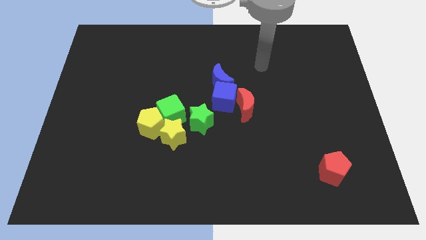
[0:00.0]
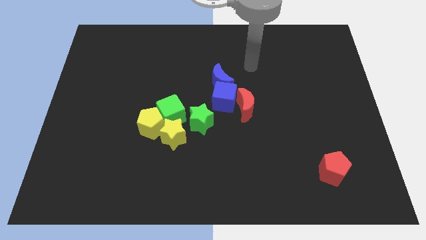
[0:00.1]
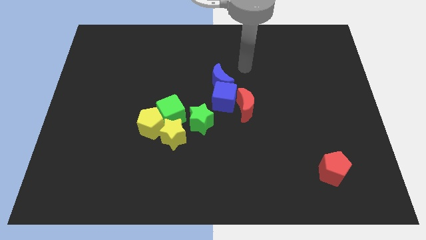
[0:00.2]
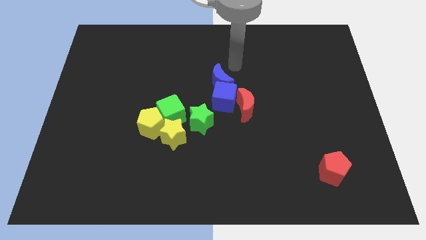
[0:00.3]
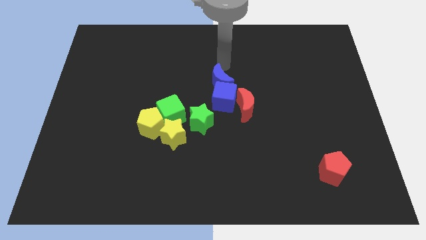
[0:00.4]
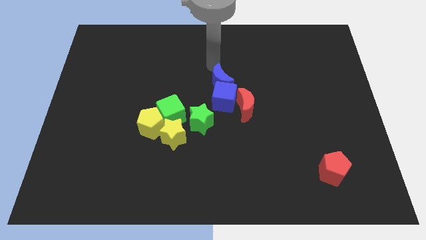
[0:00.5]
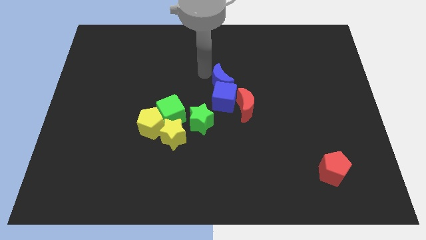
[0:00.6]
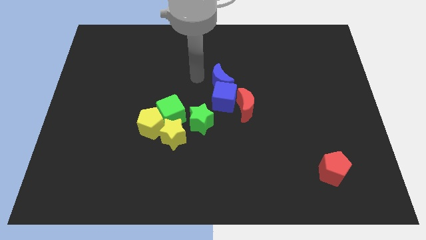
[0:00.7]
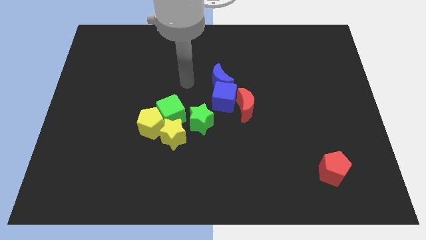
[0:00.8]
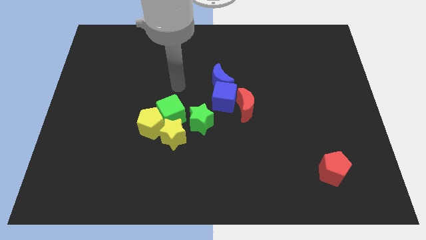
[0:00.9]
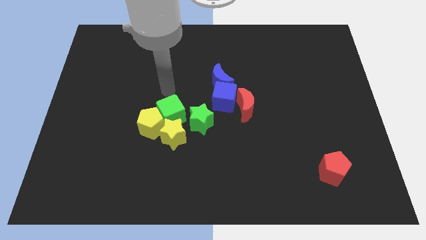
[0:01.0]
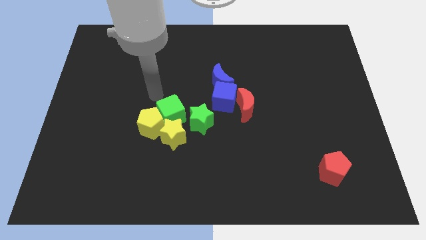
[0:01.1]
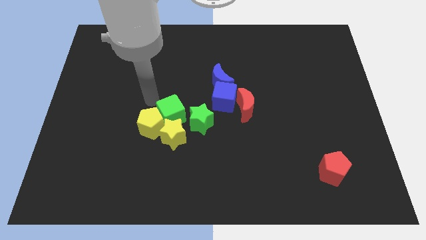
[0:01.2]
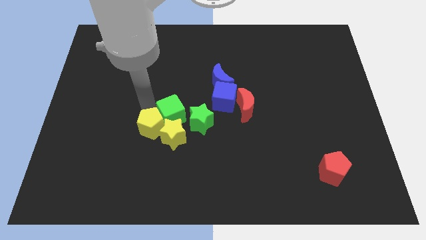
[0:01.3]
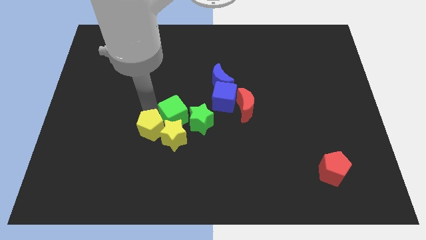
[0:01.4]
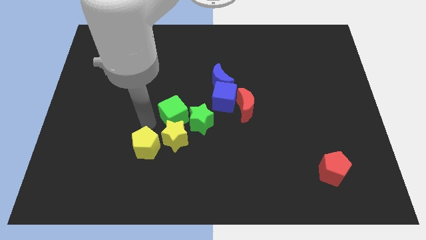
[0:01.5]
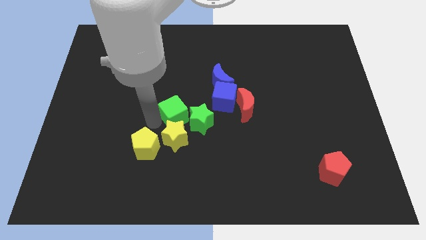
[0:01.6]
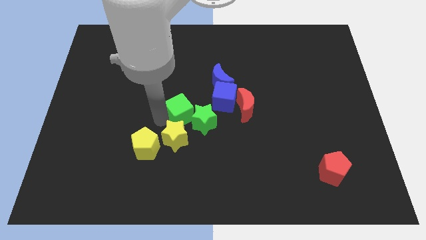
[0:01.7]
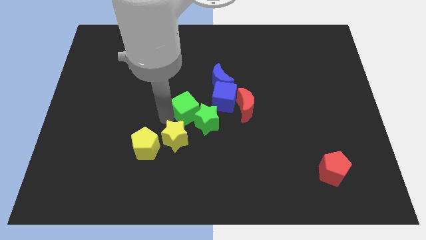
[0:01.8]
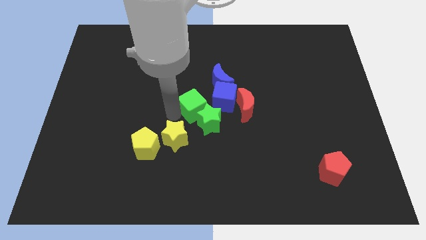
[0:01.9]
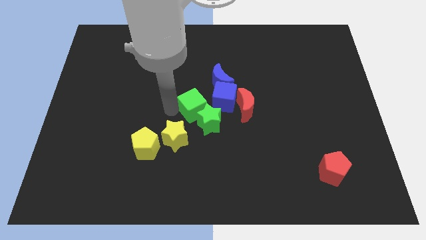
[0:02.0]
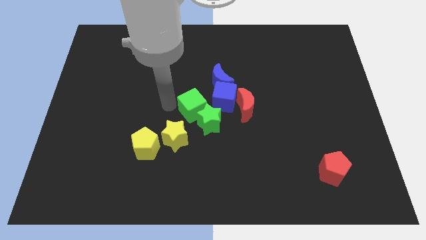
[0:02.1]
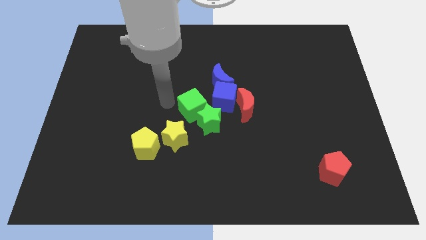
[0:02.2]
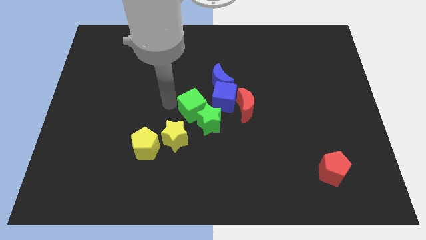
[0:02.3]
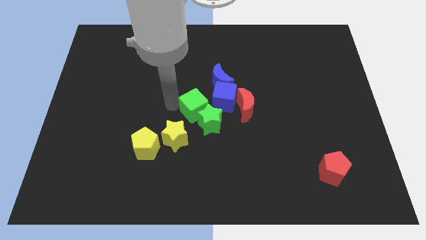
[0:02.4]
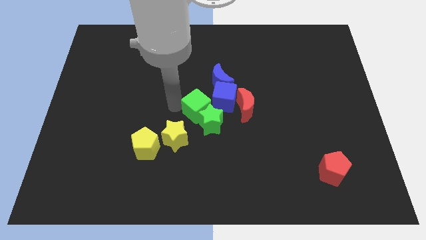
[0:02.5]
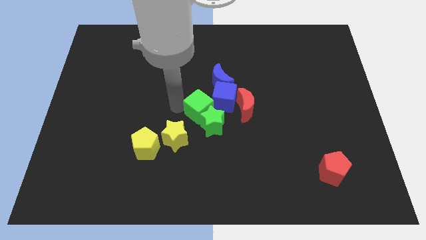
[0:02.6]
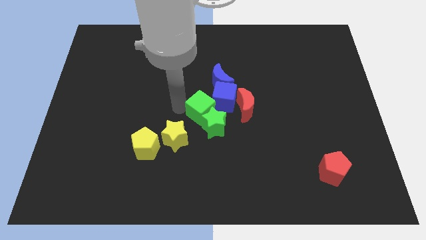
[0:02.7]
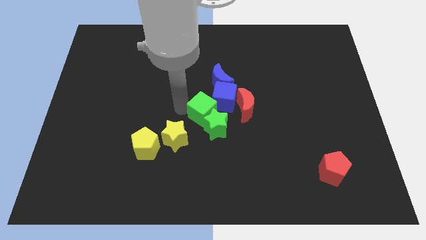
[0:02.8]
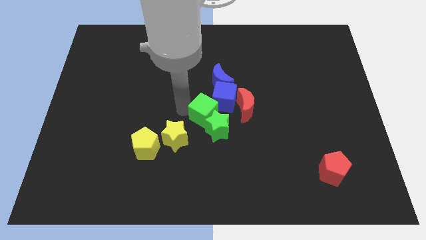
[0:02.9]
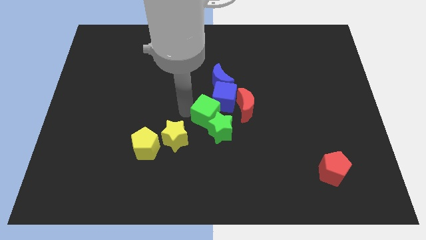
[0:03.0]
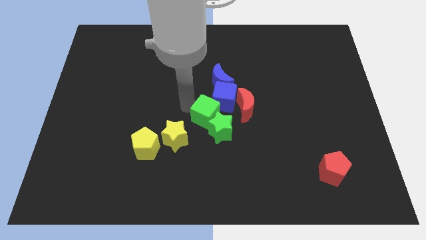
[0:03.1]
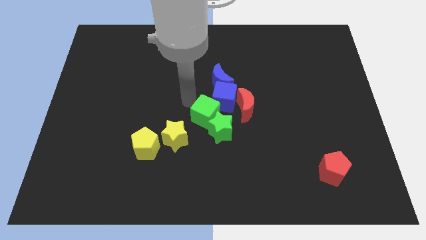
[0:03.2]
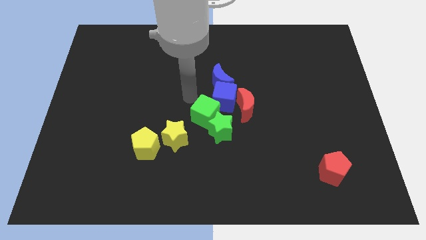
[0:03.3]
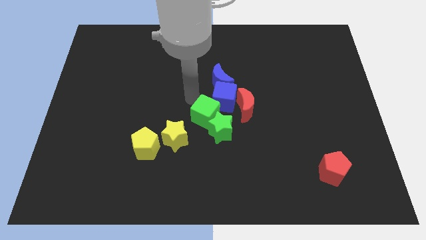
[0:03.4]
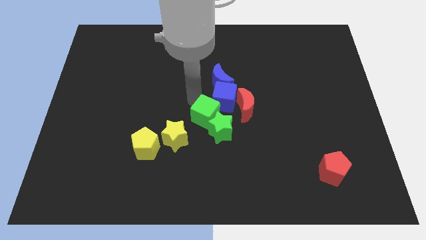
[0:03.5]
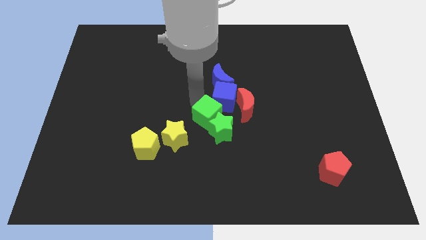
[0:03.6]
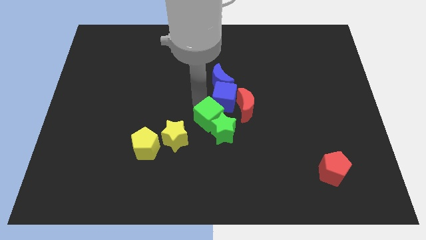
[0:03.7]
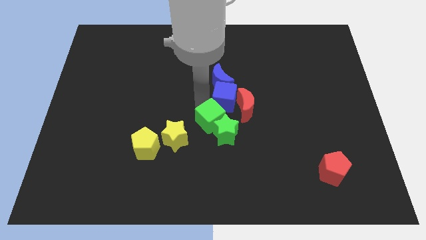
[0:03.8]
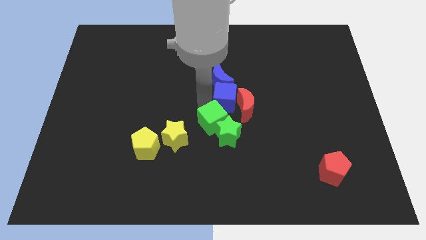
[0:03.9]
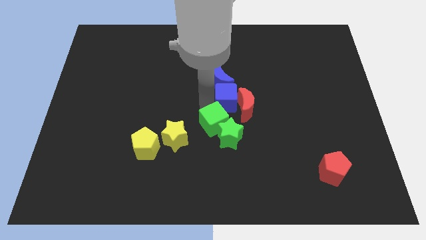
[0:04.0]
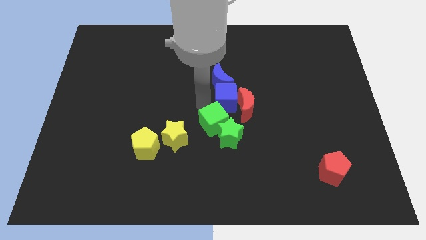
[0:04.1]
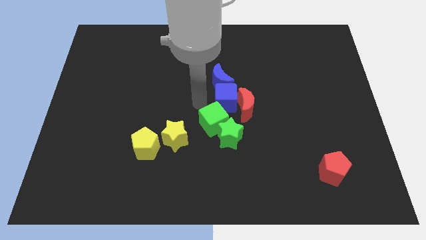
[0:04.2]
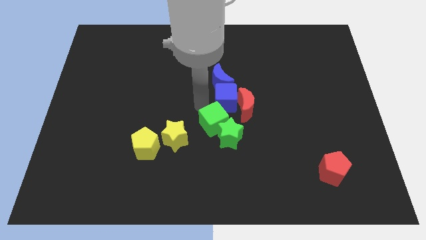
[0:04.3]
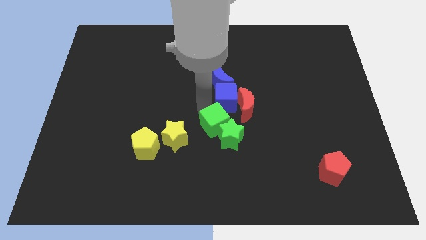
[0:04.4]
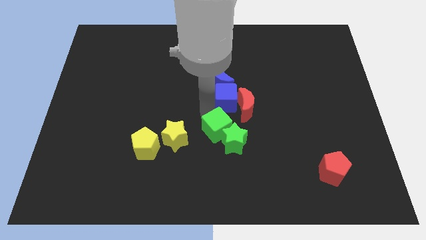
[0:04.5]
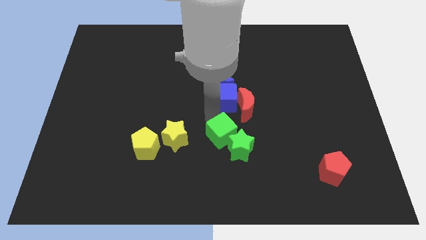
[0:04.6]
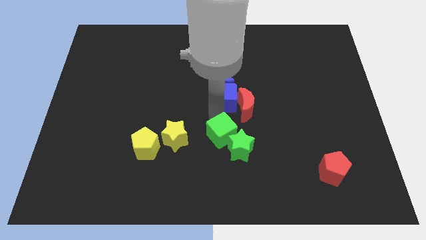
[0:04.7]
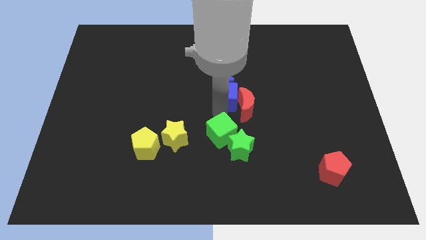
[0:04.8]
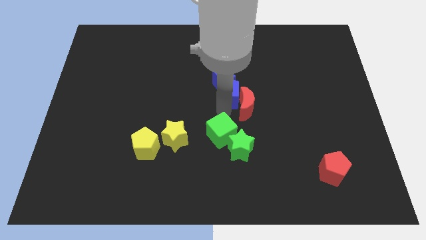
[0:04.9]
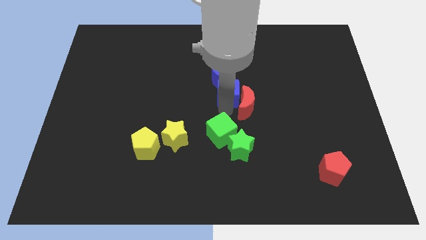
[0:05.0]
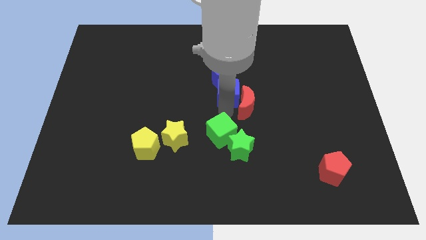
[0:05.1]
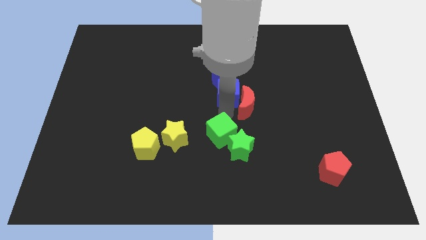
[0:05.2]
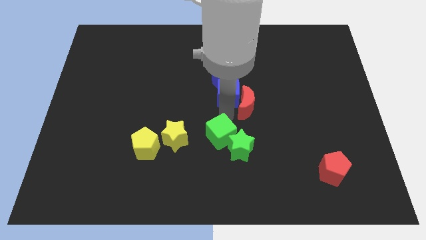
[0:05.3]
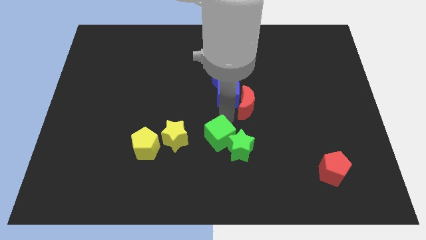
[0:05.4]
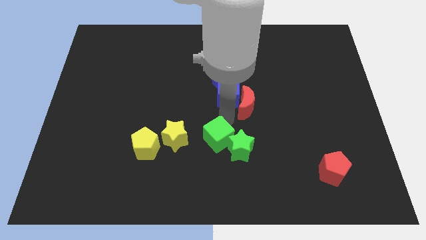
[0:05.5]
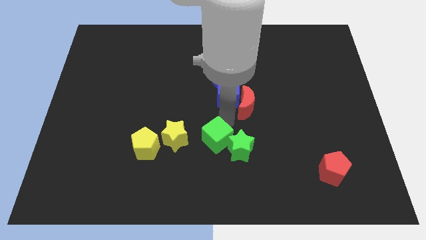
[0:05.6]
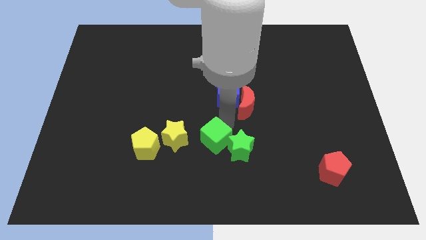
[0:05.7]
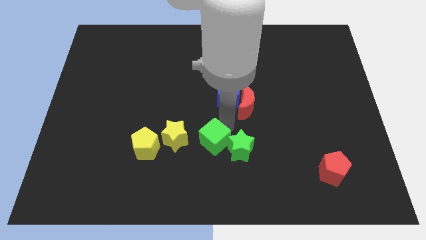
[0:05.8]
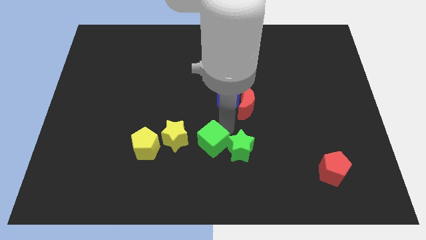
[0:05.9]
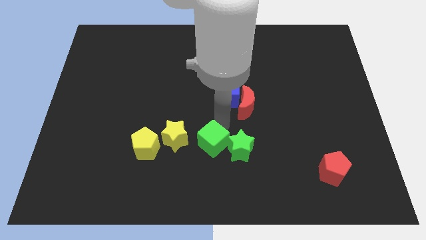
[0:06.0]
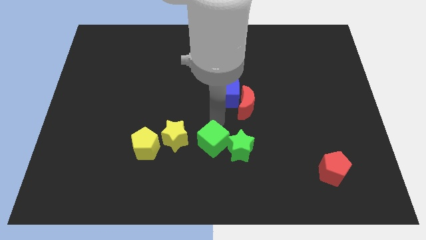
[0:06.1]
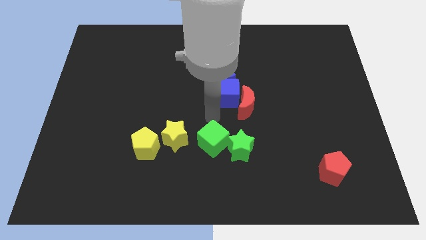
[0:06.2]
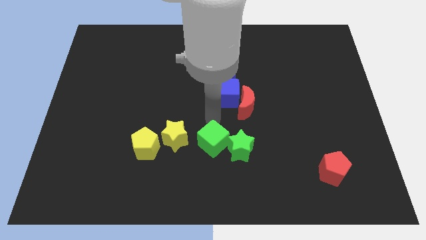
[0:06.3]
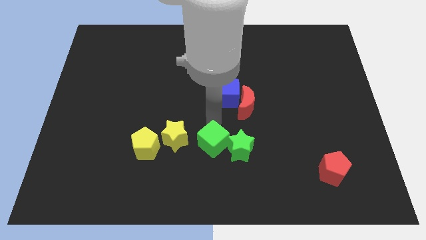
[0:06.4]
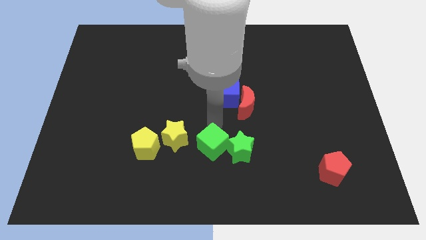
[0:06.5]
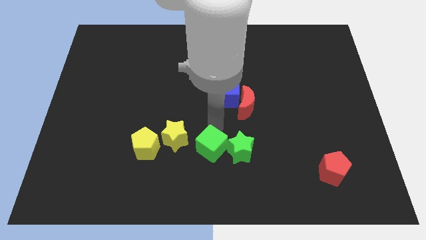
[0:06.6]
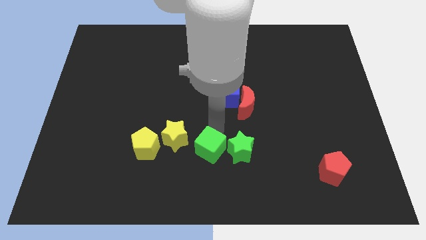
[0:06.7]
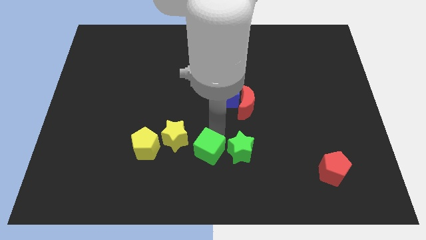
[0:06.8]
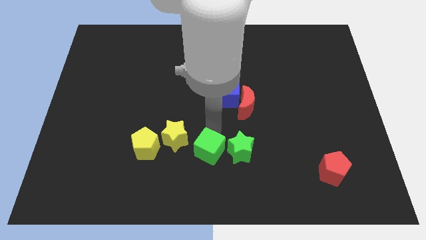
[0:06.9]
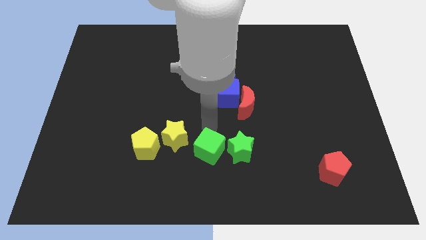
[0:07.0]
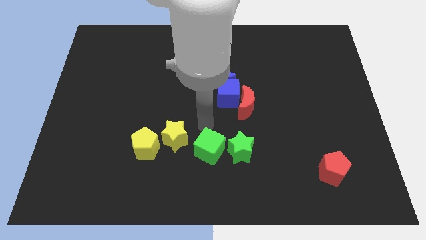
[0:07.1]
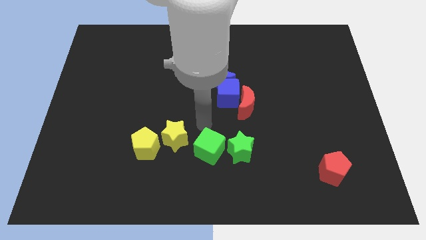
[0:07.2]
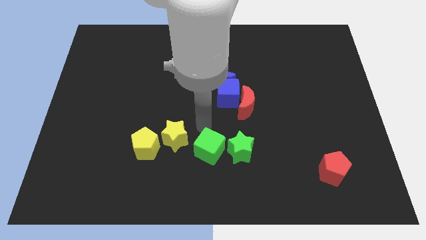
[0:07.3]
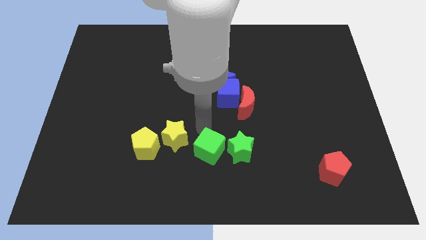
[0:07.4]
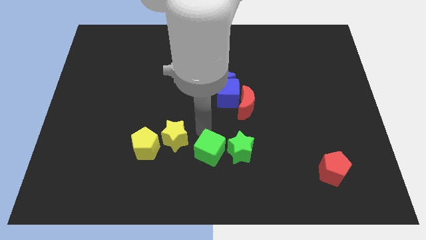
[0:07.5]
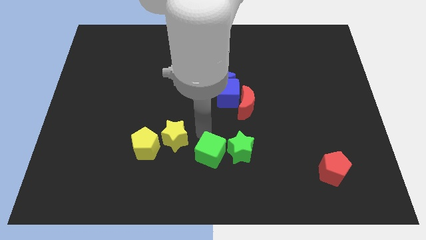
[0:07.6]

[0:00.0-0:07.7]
push the green cube to the bottom side
